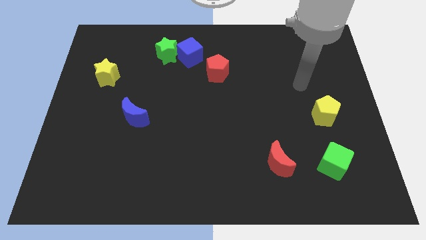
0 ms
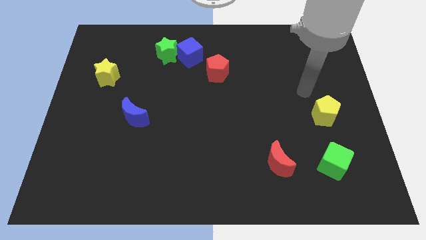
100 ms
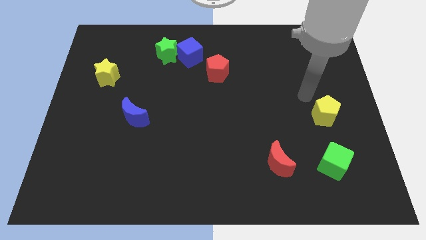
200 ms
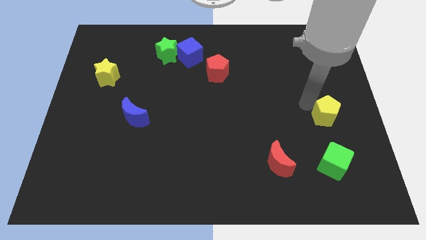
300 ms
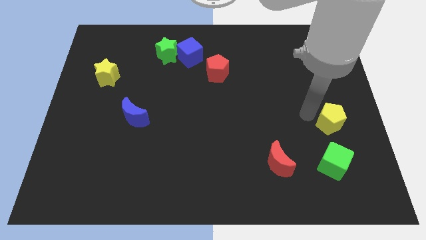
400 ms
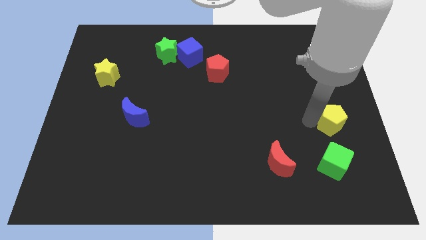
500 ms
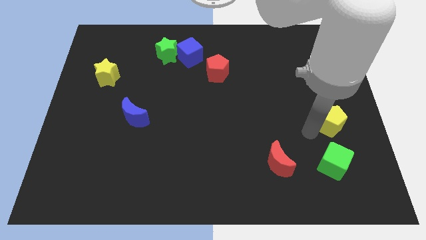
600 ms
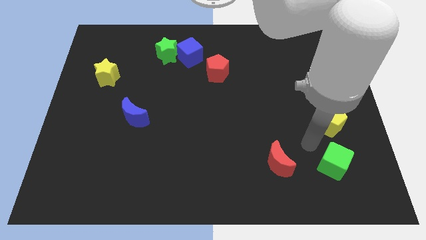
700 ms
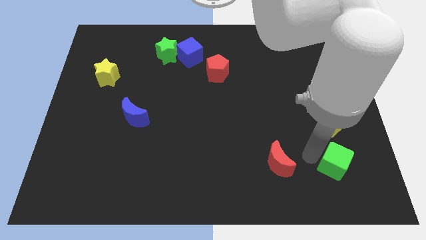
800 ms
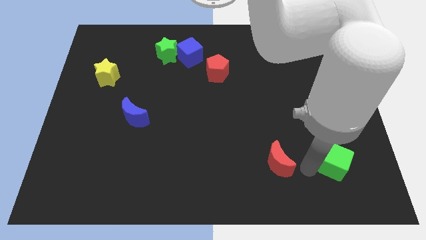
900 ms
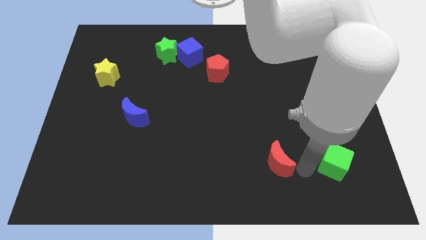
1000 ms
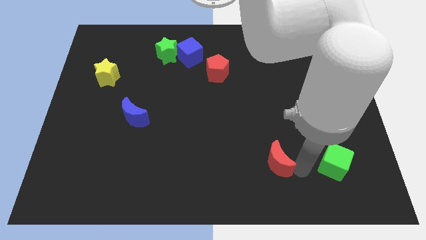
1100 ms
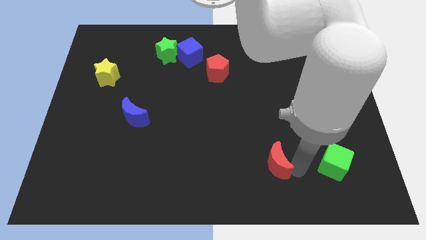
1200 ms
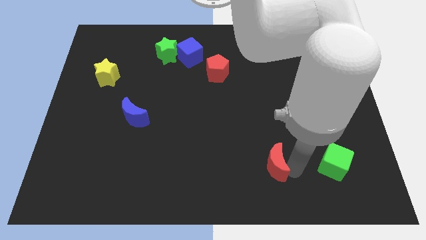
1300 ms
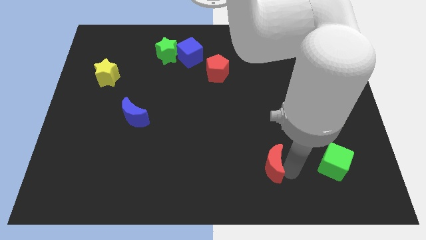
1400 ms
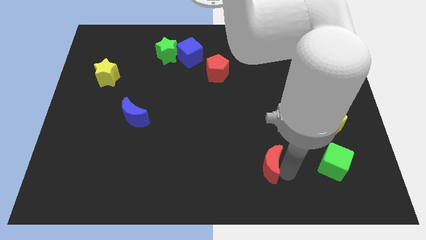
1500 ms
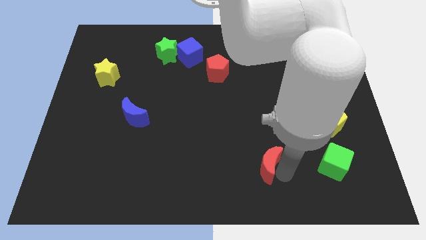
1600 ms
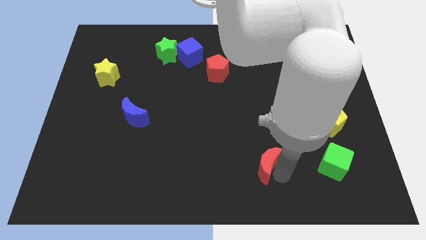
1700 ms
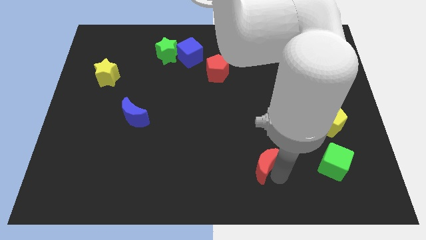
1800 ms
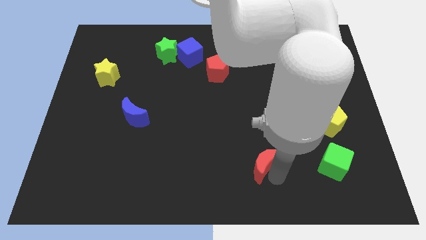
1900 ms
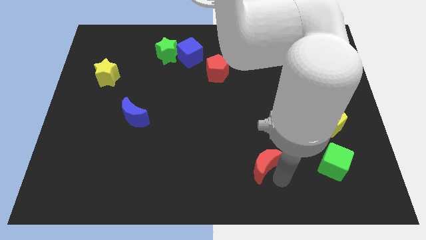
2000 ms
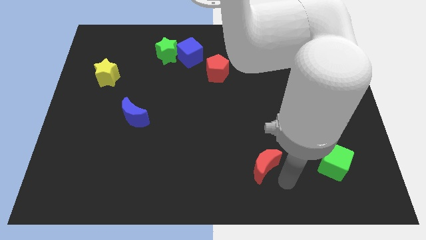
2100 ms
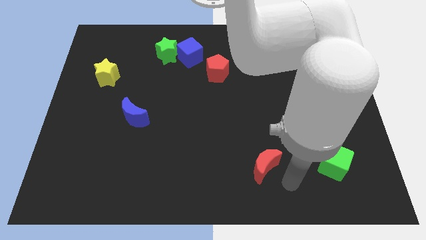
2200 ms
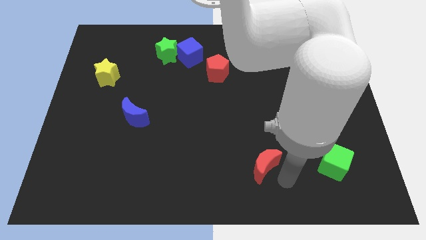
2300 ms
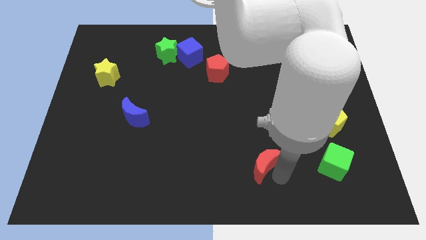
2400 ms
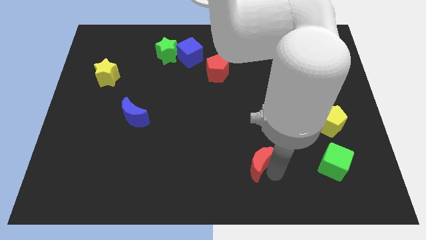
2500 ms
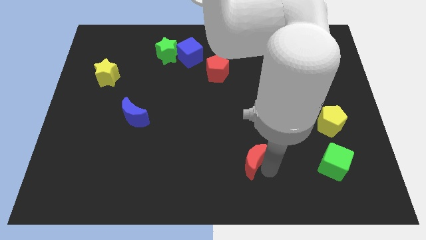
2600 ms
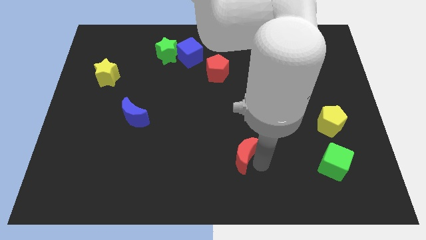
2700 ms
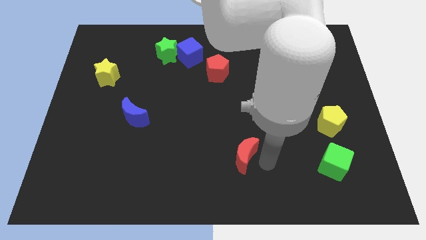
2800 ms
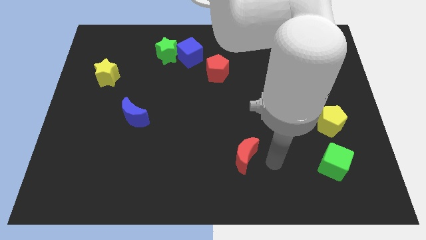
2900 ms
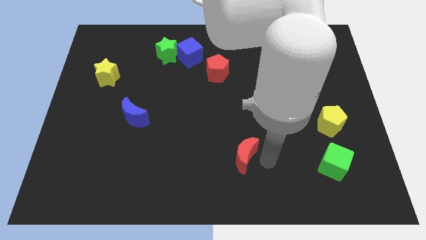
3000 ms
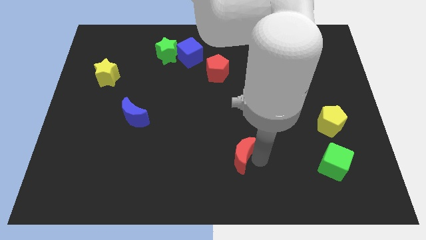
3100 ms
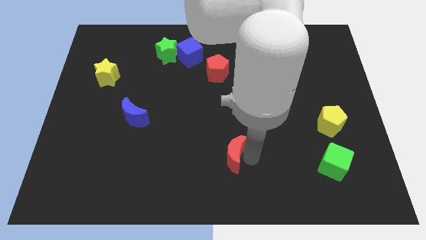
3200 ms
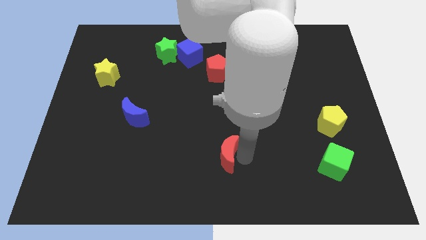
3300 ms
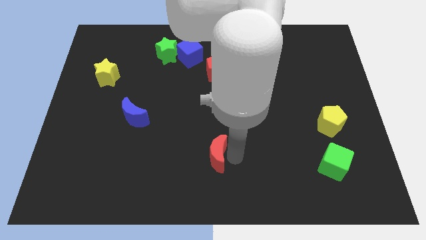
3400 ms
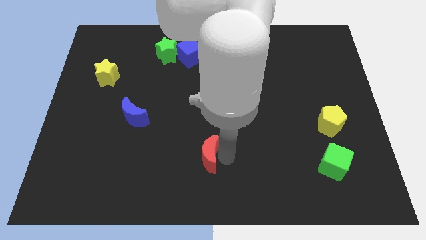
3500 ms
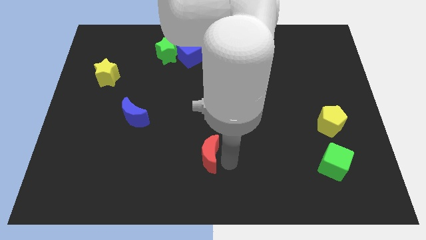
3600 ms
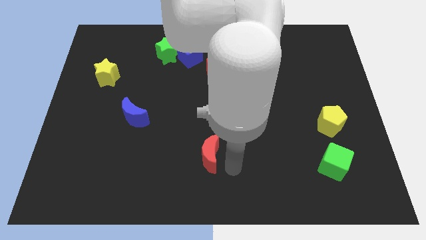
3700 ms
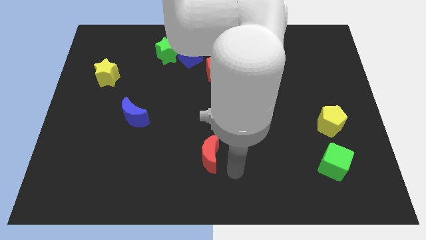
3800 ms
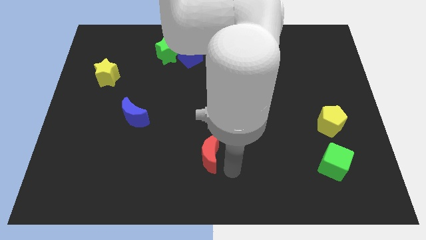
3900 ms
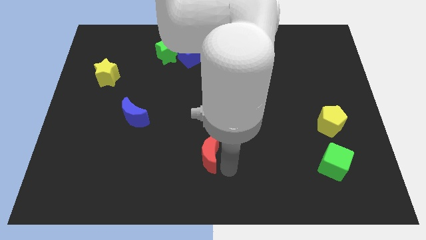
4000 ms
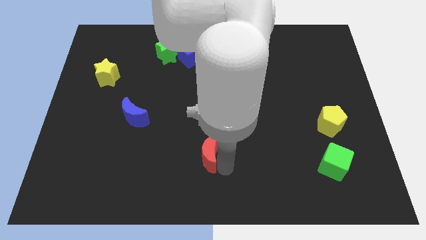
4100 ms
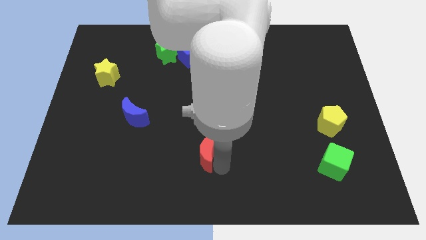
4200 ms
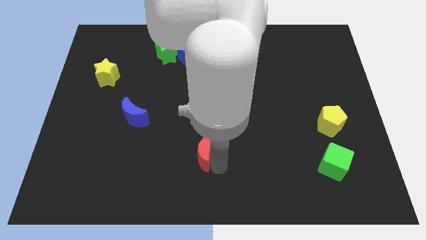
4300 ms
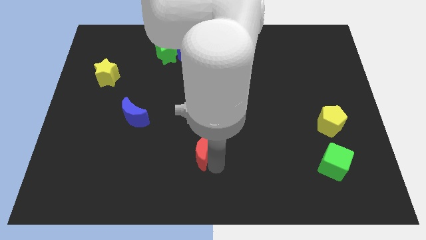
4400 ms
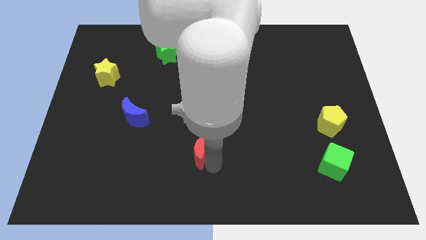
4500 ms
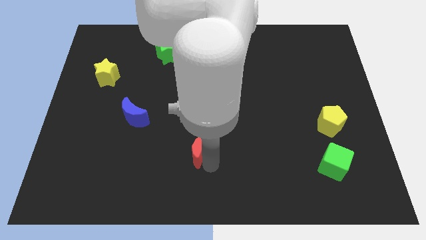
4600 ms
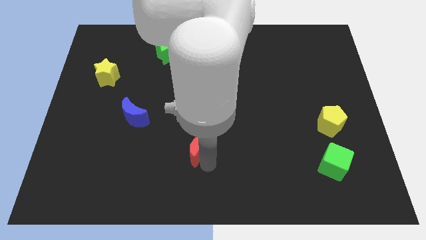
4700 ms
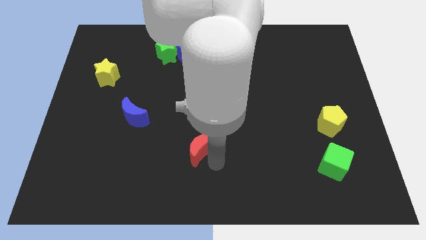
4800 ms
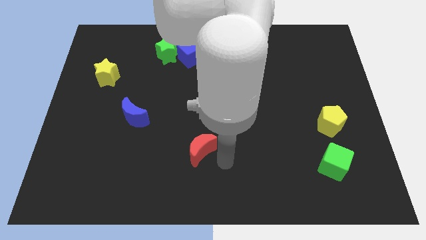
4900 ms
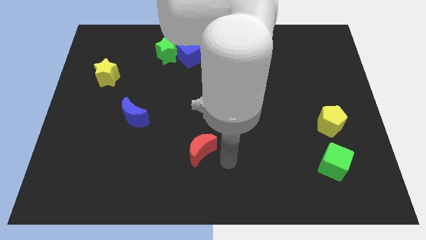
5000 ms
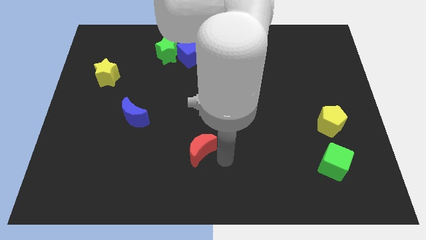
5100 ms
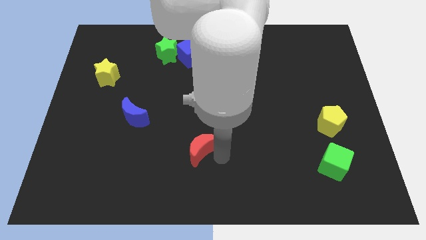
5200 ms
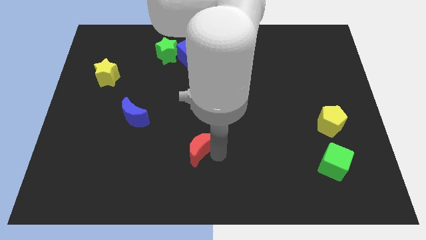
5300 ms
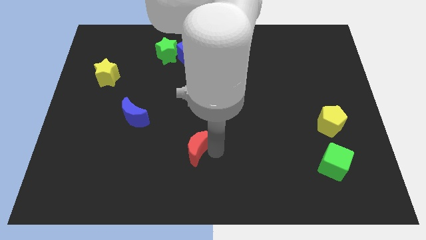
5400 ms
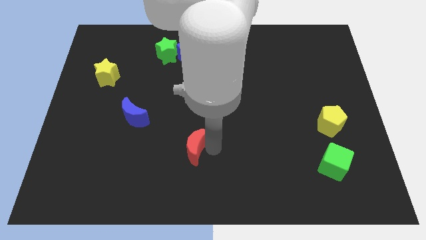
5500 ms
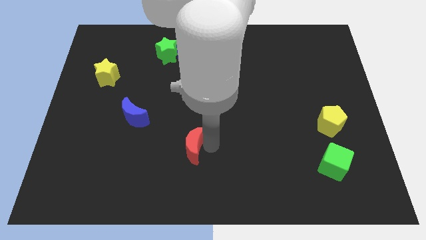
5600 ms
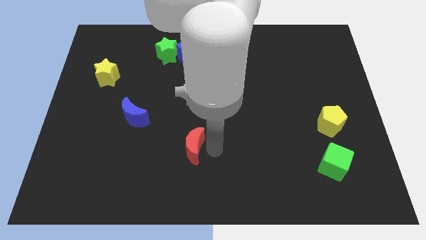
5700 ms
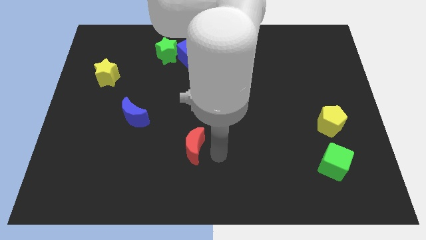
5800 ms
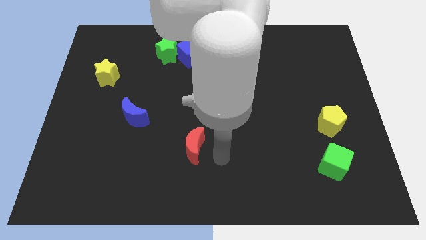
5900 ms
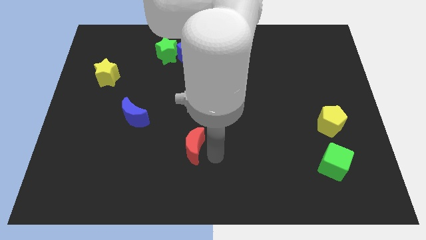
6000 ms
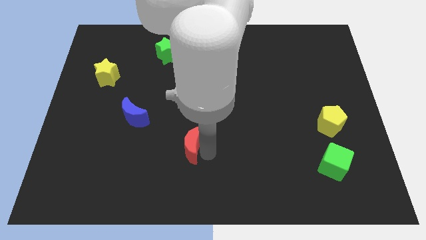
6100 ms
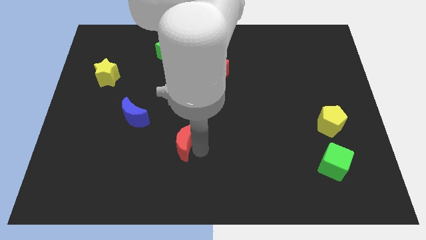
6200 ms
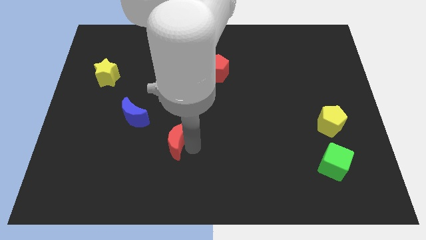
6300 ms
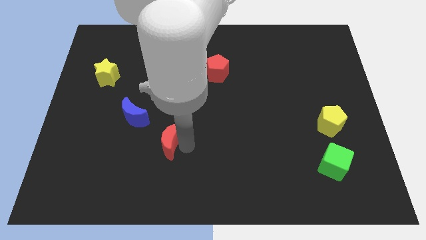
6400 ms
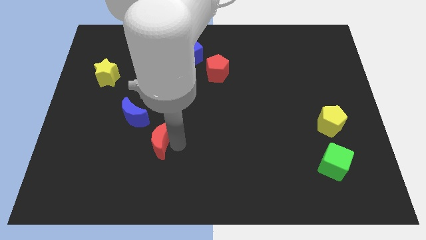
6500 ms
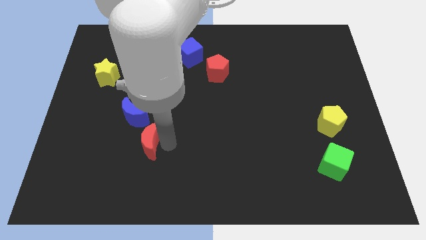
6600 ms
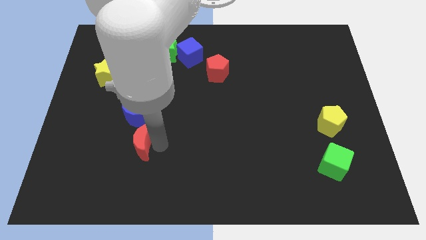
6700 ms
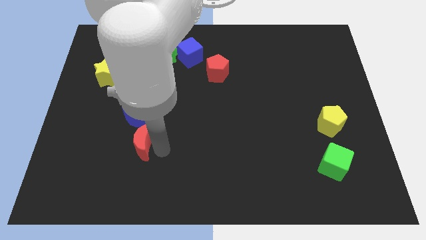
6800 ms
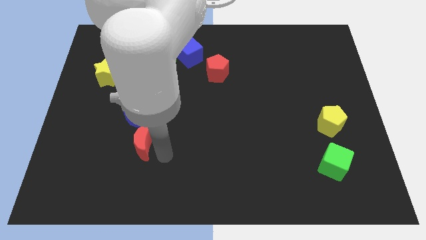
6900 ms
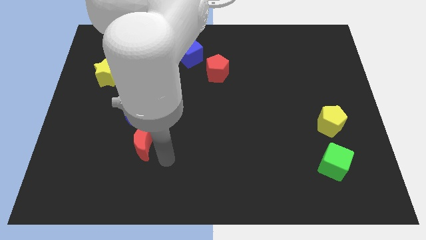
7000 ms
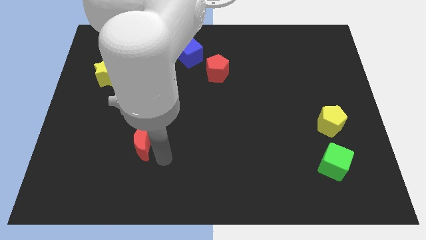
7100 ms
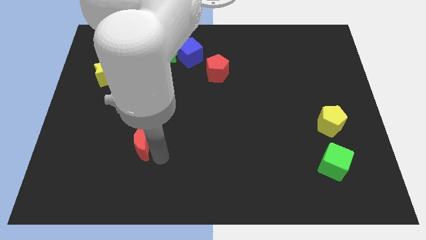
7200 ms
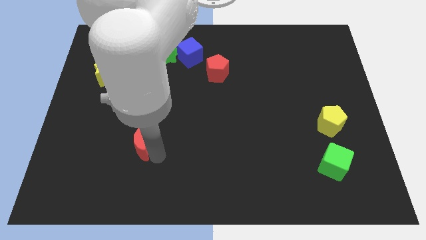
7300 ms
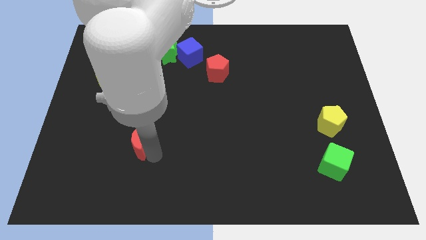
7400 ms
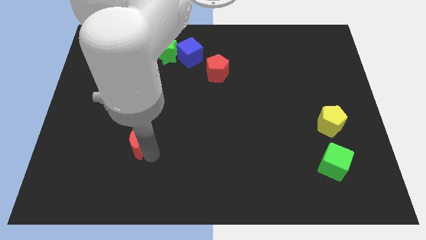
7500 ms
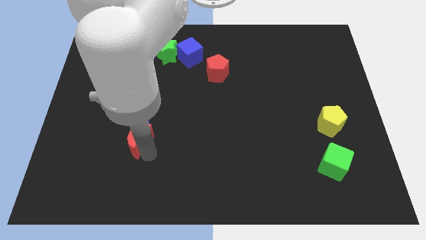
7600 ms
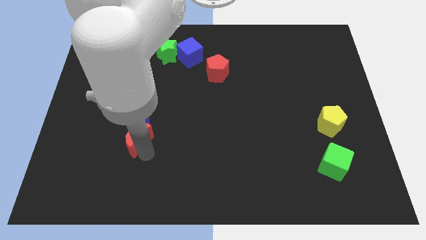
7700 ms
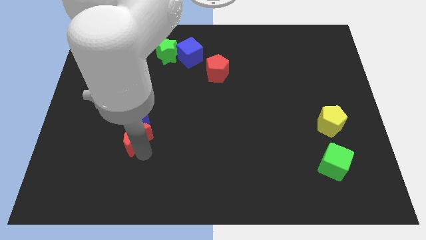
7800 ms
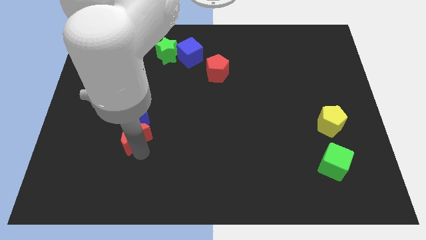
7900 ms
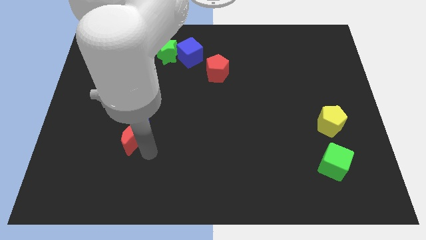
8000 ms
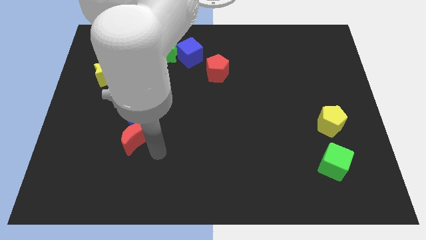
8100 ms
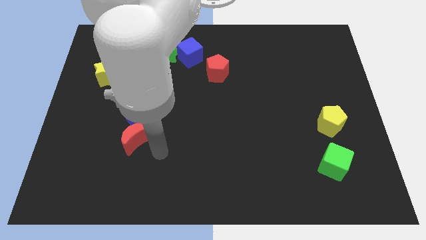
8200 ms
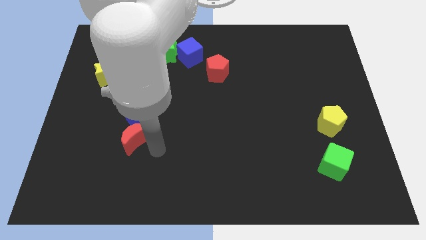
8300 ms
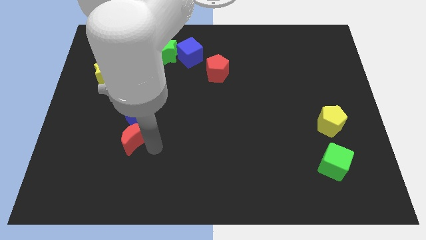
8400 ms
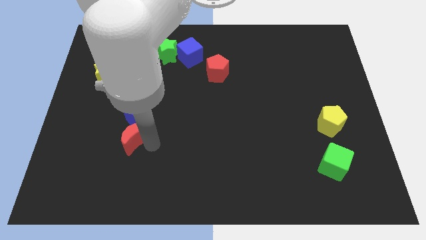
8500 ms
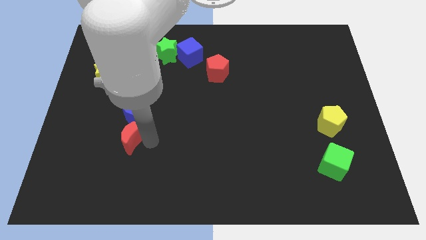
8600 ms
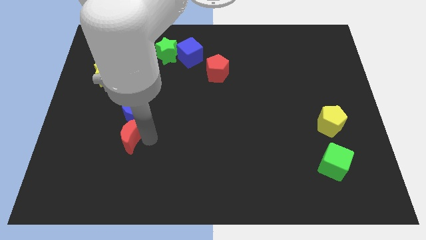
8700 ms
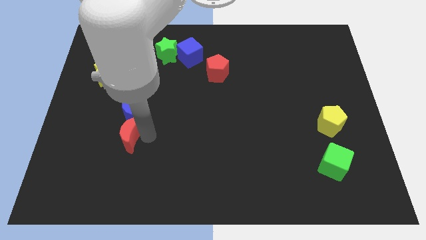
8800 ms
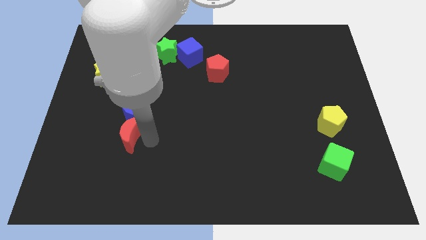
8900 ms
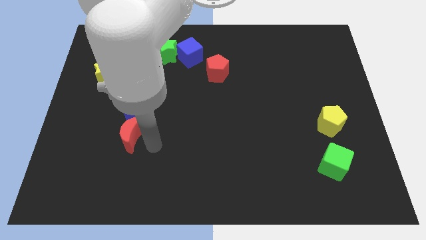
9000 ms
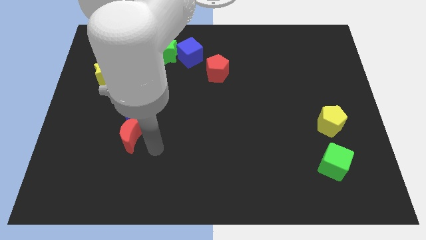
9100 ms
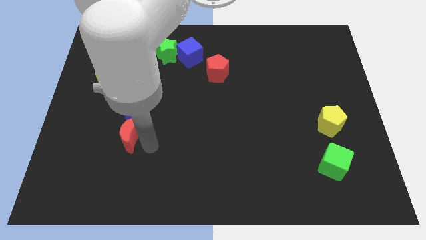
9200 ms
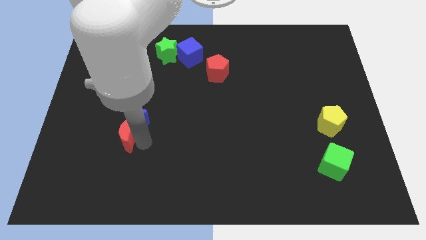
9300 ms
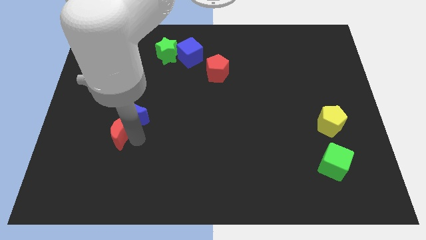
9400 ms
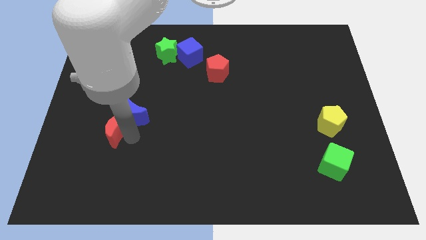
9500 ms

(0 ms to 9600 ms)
slide the red moon to the left side of the blue moon
